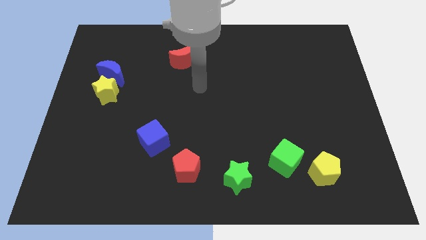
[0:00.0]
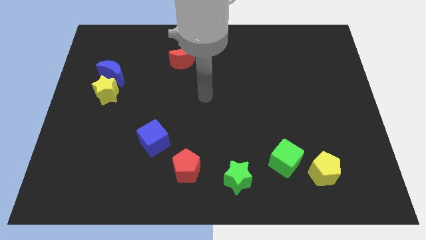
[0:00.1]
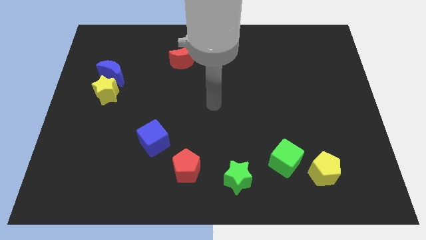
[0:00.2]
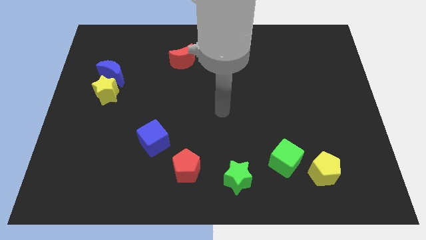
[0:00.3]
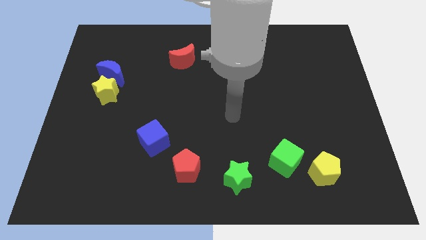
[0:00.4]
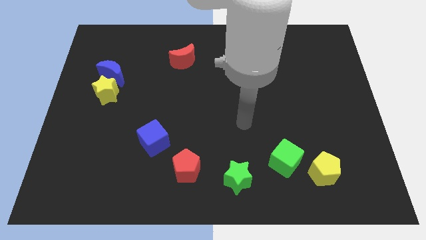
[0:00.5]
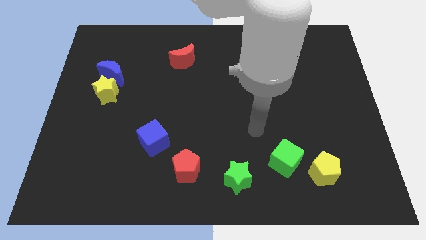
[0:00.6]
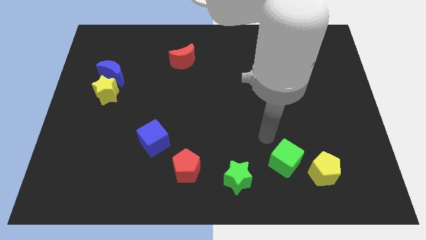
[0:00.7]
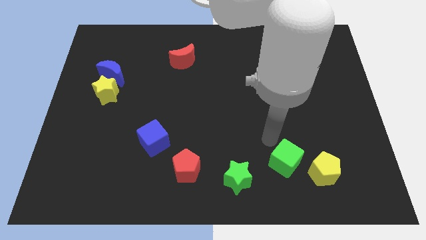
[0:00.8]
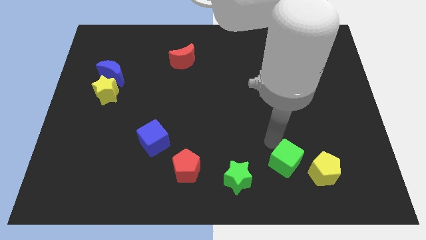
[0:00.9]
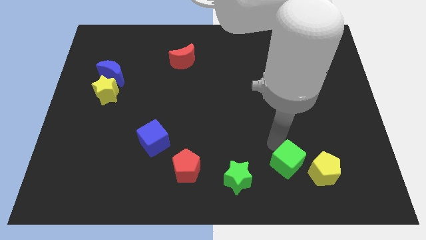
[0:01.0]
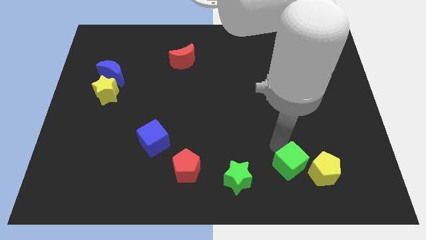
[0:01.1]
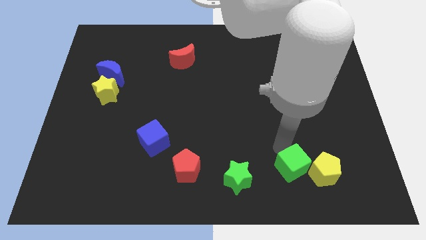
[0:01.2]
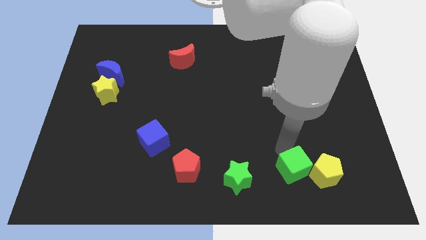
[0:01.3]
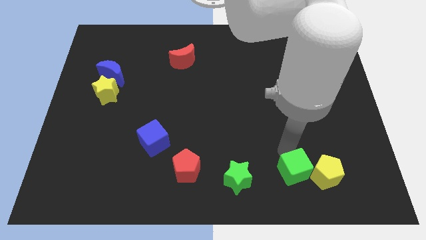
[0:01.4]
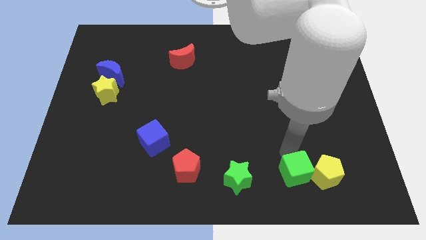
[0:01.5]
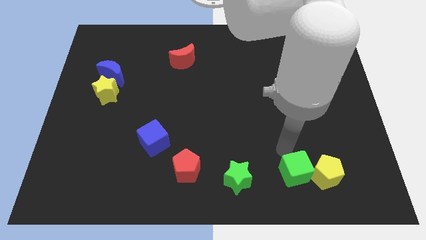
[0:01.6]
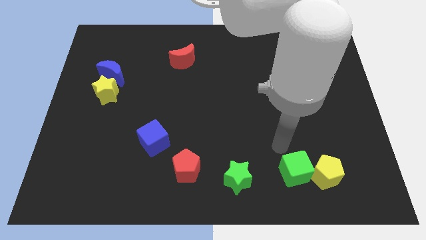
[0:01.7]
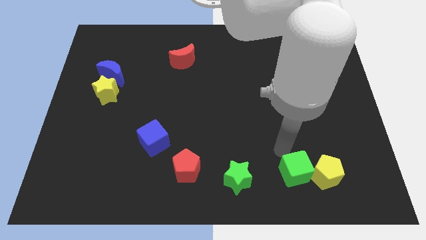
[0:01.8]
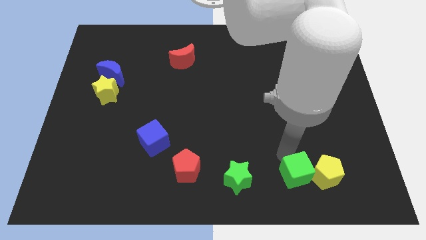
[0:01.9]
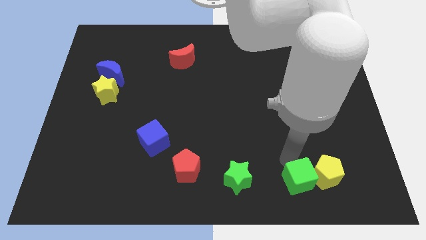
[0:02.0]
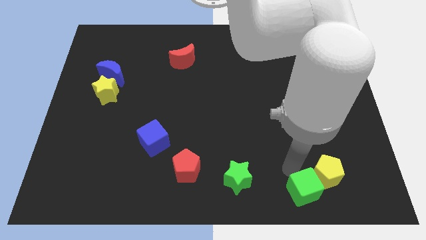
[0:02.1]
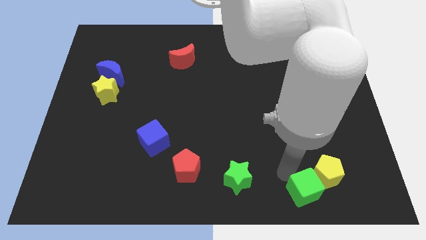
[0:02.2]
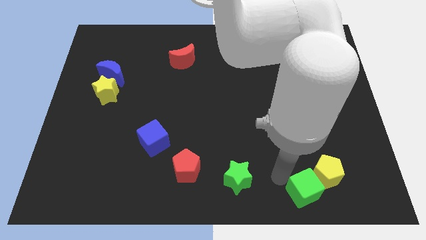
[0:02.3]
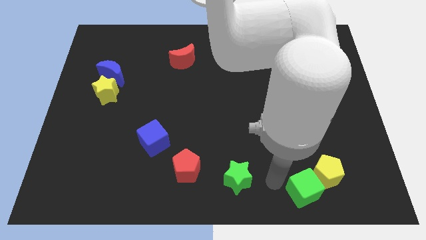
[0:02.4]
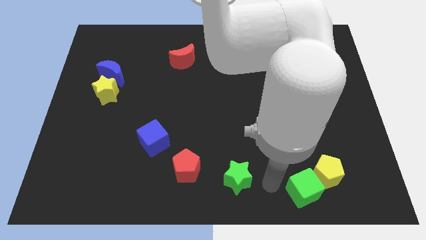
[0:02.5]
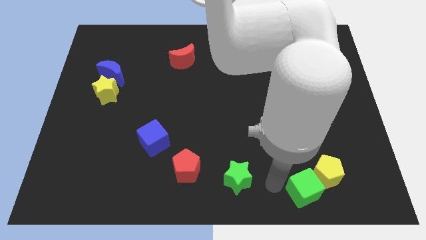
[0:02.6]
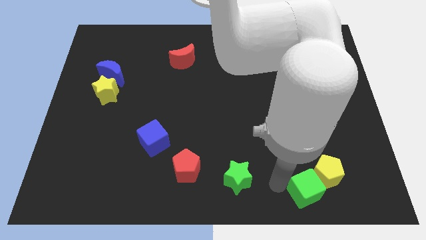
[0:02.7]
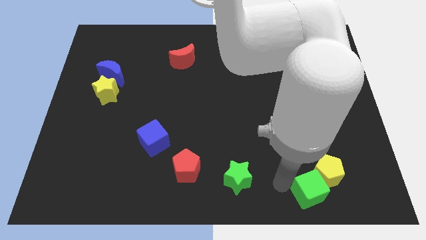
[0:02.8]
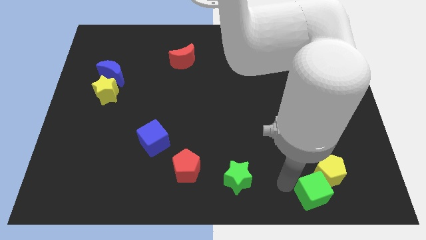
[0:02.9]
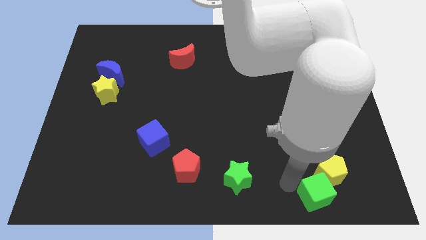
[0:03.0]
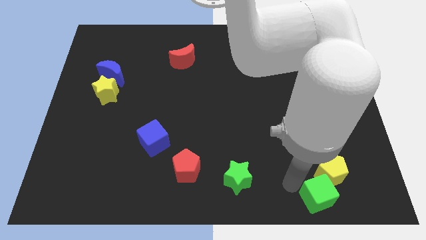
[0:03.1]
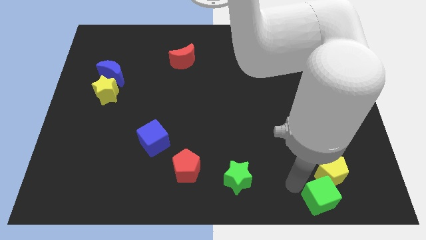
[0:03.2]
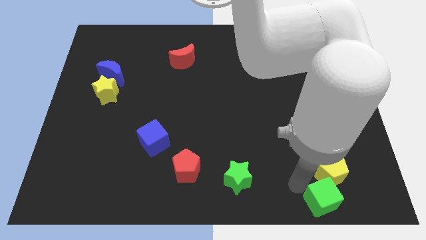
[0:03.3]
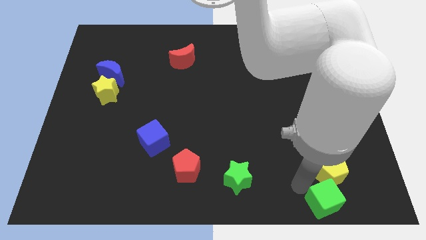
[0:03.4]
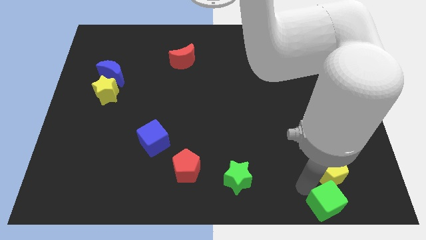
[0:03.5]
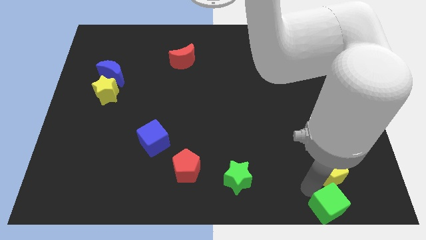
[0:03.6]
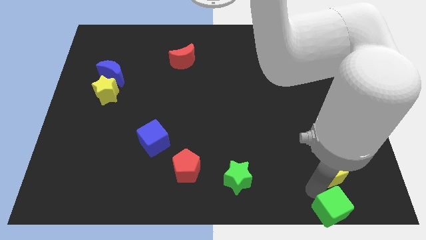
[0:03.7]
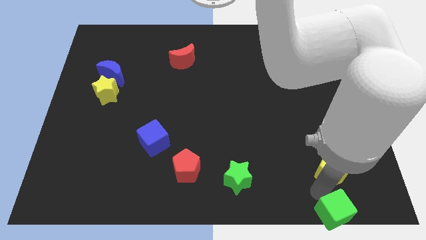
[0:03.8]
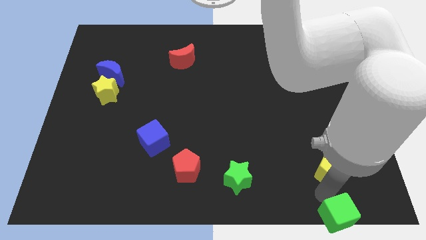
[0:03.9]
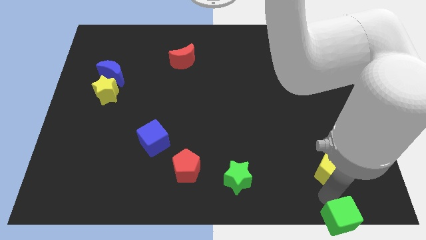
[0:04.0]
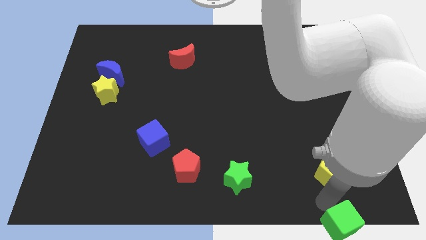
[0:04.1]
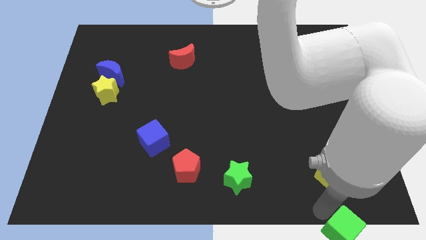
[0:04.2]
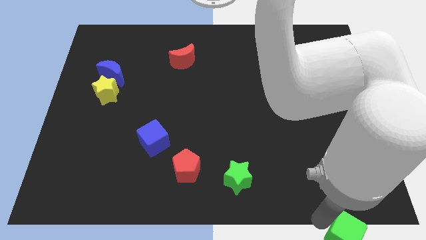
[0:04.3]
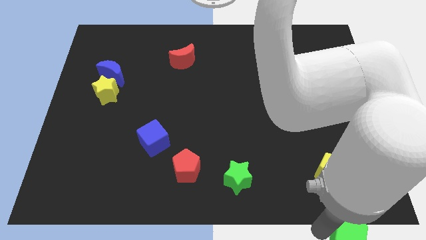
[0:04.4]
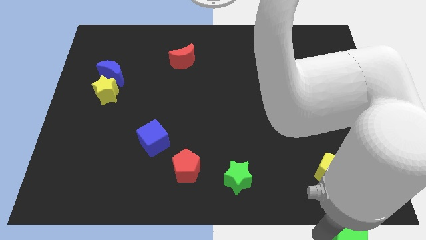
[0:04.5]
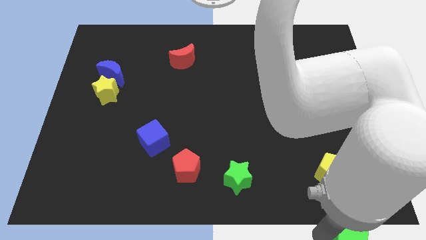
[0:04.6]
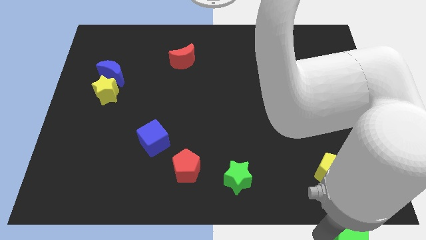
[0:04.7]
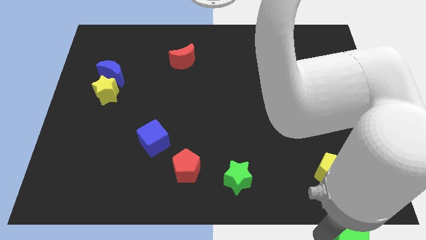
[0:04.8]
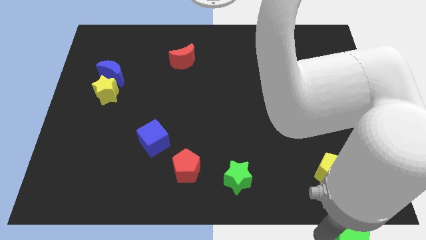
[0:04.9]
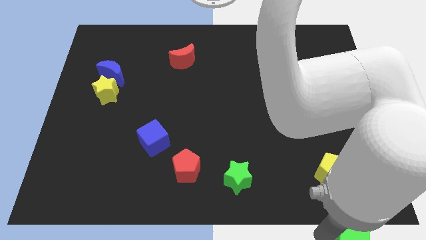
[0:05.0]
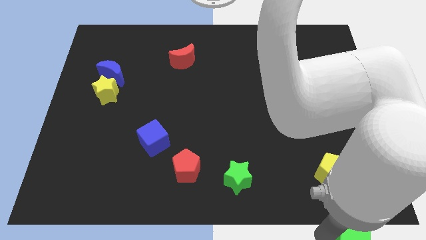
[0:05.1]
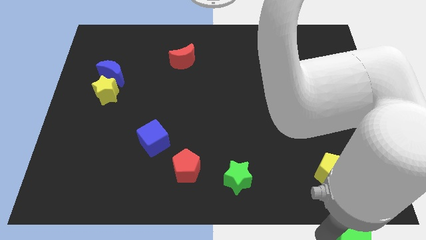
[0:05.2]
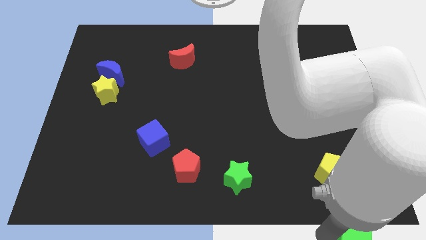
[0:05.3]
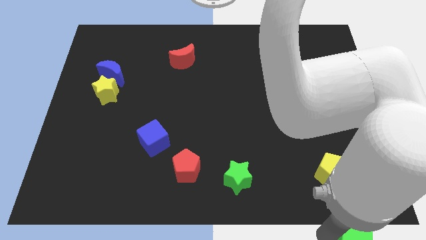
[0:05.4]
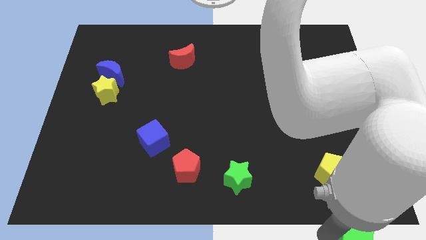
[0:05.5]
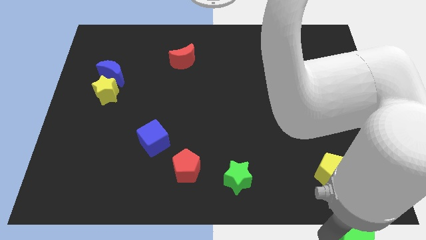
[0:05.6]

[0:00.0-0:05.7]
put the green cube to the lower right corner
